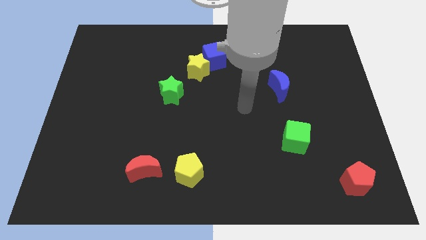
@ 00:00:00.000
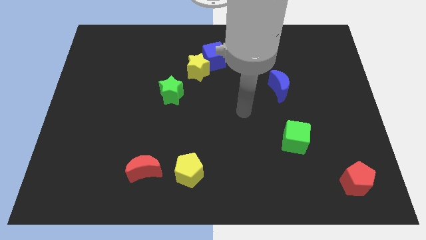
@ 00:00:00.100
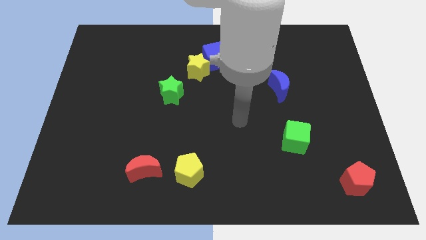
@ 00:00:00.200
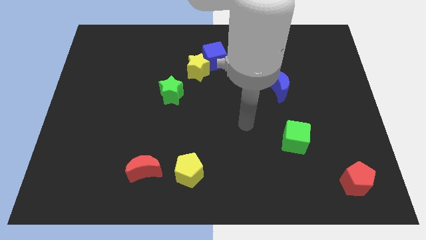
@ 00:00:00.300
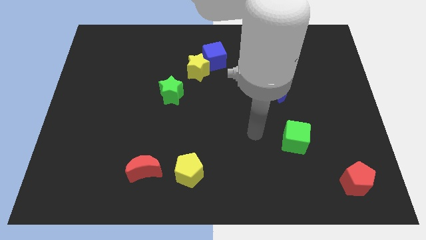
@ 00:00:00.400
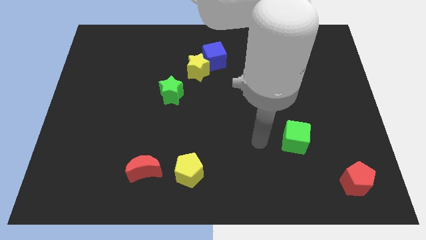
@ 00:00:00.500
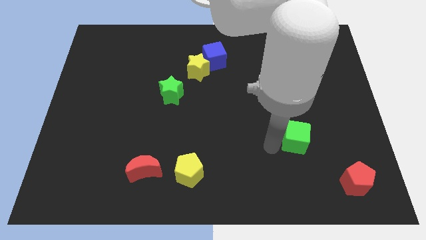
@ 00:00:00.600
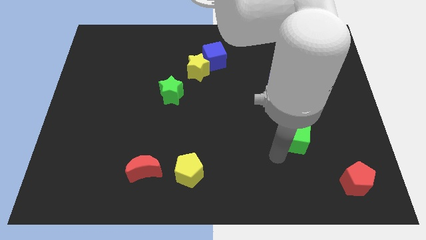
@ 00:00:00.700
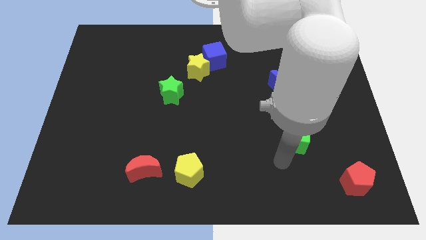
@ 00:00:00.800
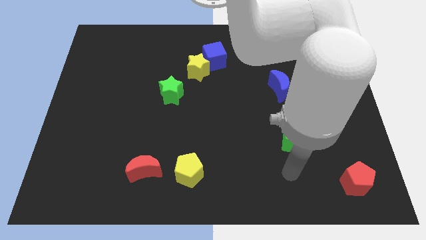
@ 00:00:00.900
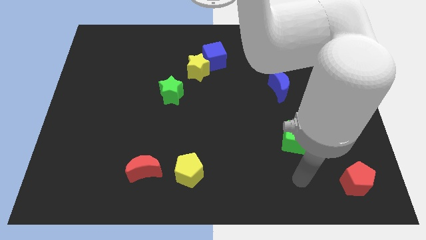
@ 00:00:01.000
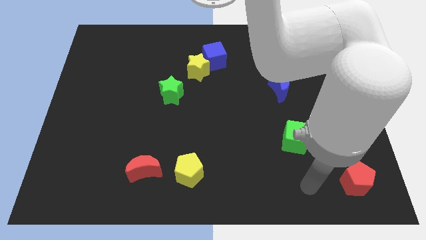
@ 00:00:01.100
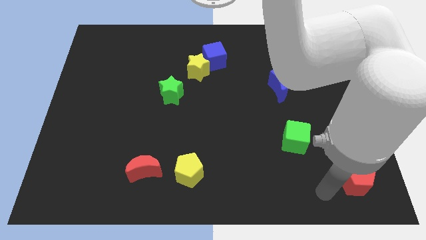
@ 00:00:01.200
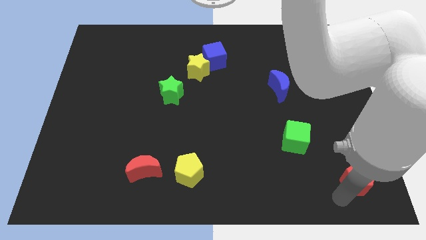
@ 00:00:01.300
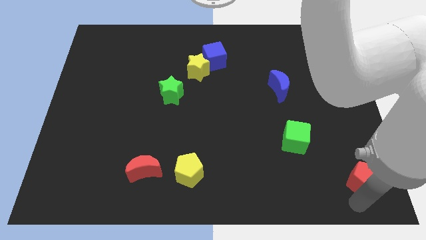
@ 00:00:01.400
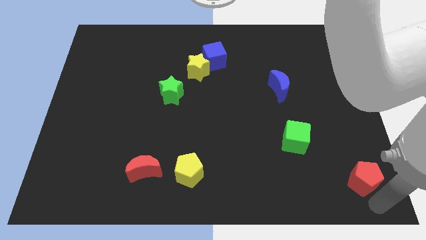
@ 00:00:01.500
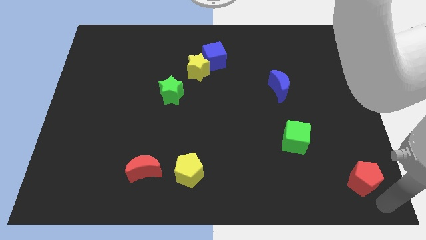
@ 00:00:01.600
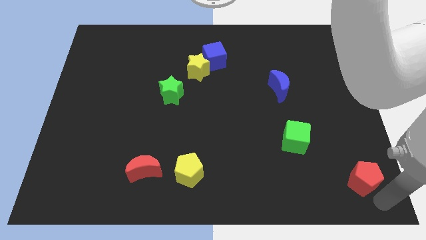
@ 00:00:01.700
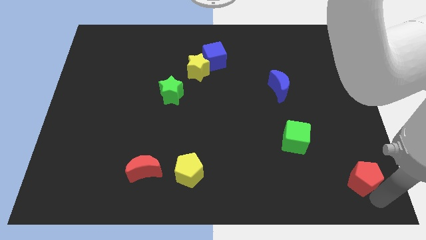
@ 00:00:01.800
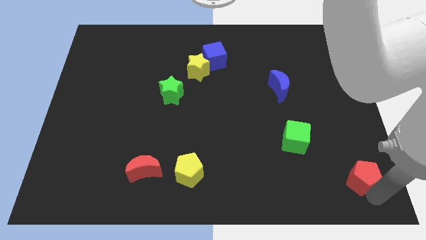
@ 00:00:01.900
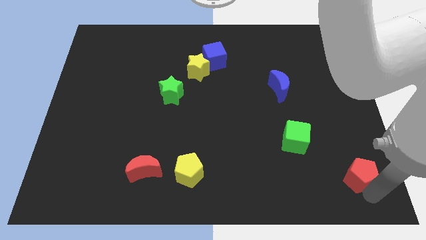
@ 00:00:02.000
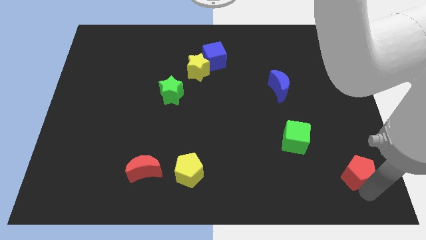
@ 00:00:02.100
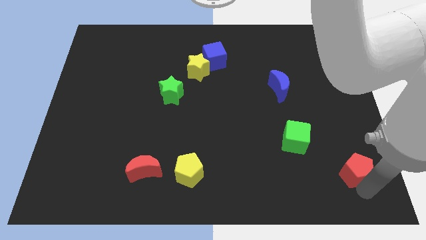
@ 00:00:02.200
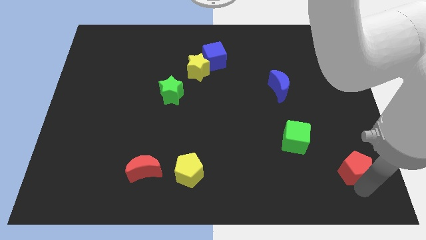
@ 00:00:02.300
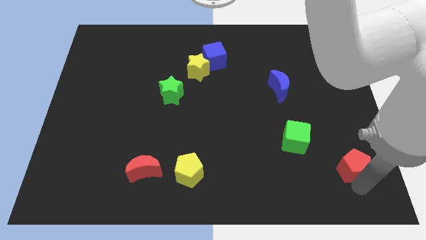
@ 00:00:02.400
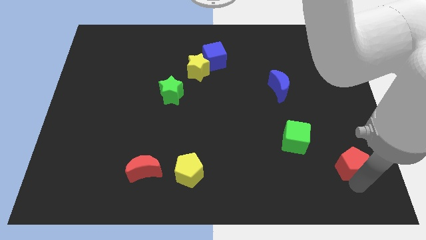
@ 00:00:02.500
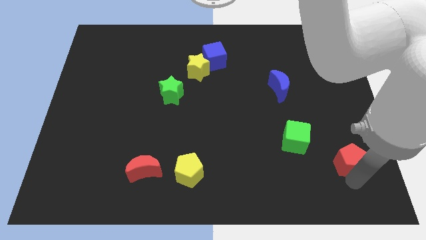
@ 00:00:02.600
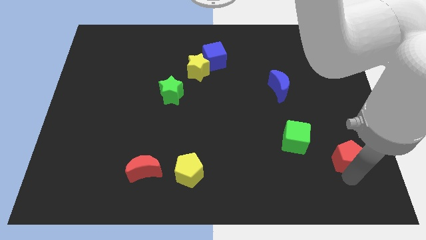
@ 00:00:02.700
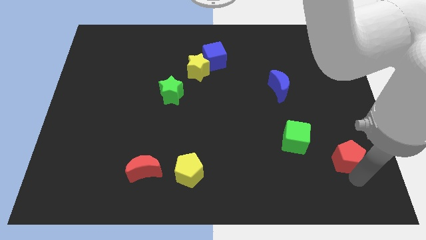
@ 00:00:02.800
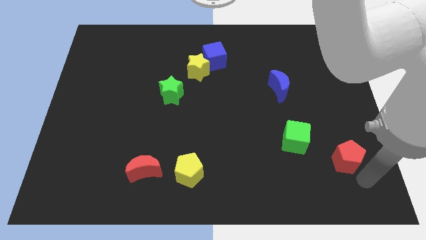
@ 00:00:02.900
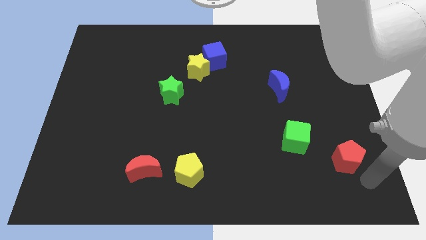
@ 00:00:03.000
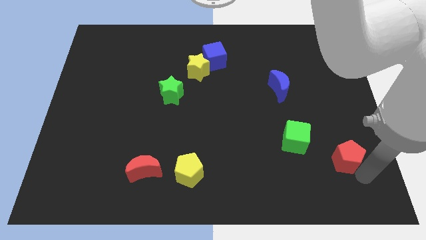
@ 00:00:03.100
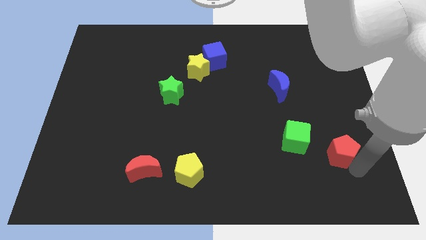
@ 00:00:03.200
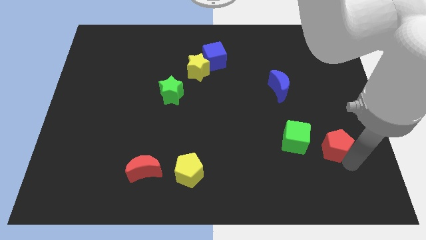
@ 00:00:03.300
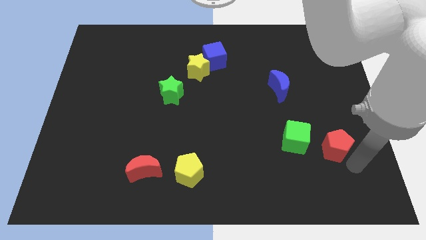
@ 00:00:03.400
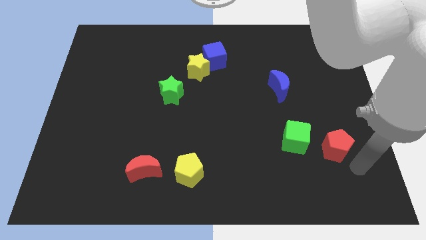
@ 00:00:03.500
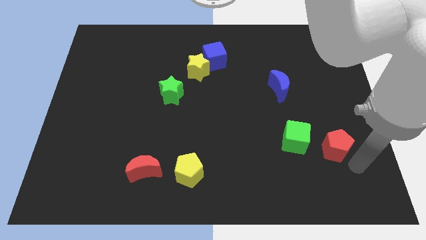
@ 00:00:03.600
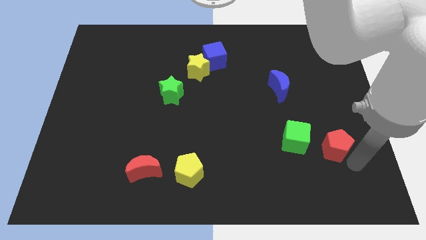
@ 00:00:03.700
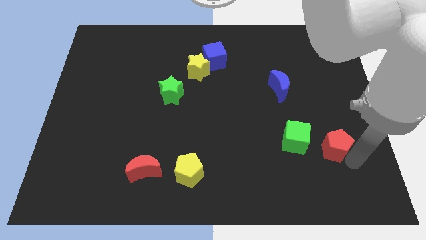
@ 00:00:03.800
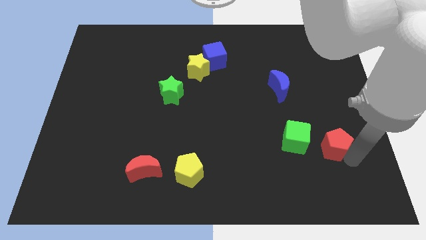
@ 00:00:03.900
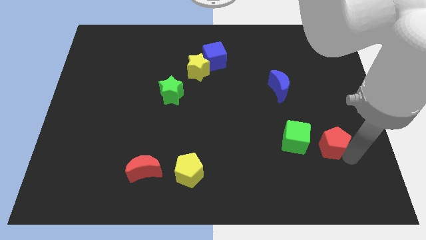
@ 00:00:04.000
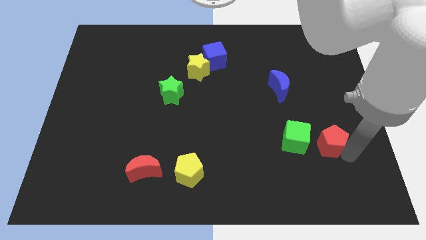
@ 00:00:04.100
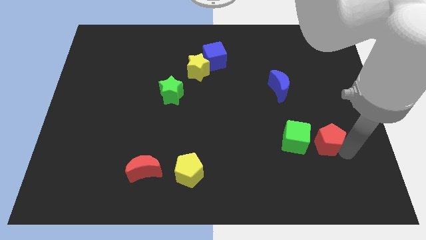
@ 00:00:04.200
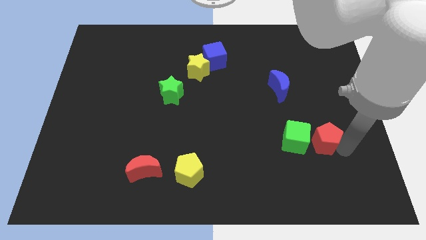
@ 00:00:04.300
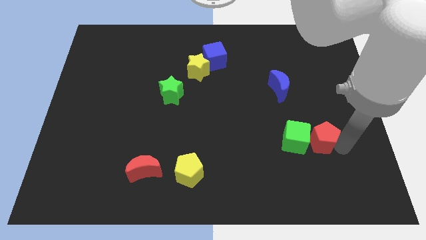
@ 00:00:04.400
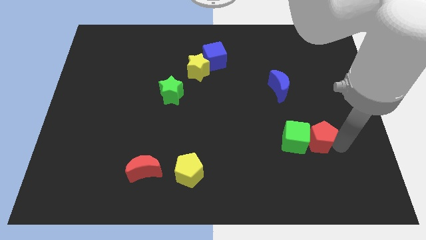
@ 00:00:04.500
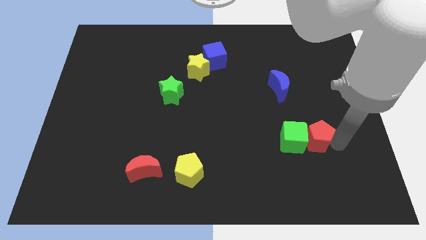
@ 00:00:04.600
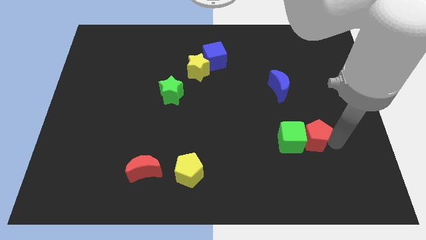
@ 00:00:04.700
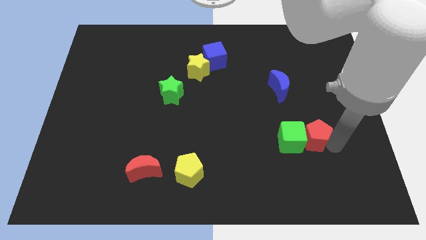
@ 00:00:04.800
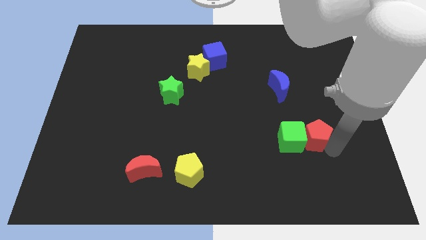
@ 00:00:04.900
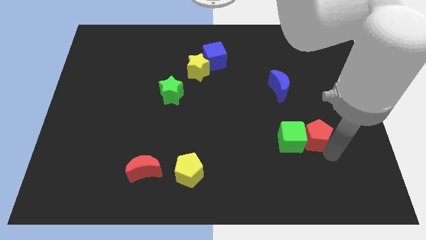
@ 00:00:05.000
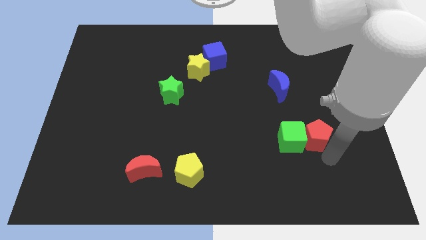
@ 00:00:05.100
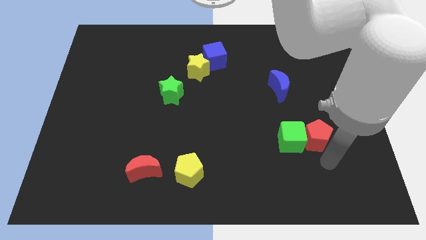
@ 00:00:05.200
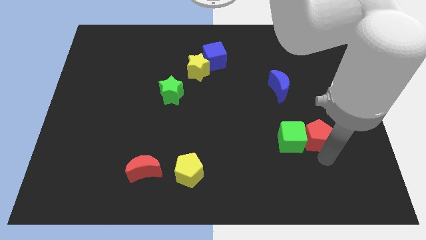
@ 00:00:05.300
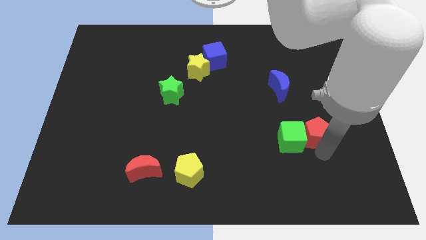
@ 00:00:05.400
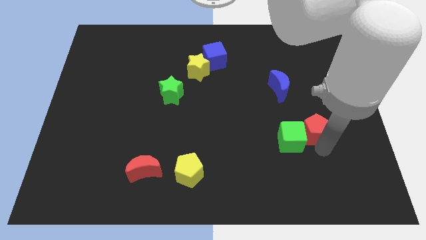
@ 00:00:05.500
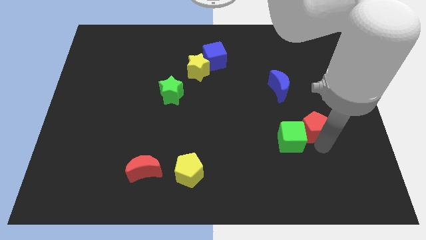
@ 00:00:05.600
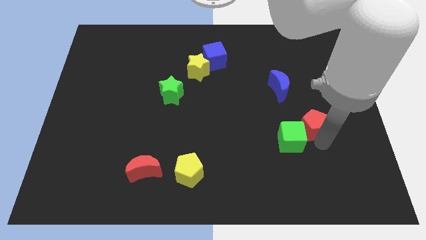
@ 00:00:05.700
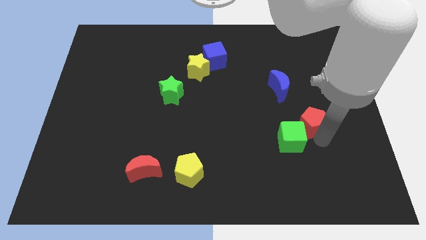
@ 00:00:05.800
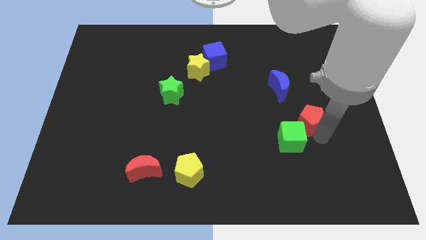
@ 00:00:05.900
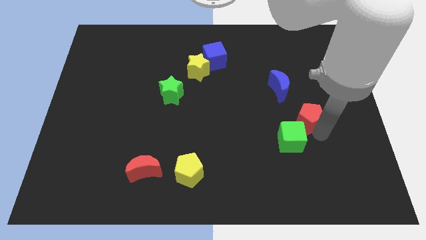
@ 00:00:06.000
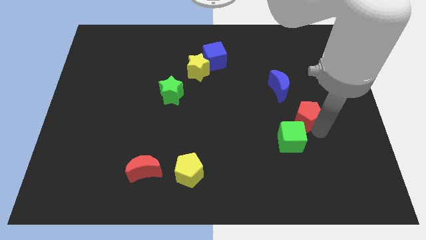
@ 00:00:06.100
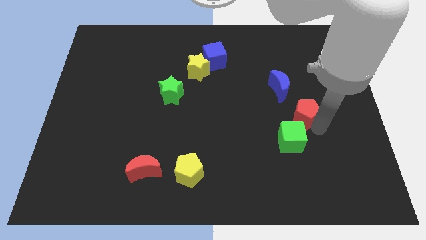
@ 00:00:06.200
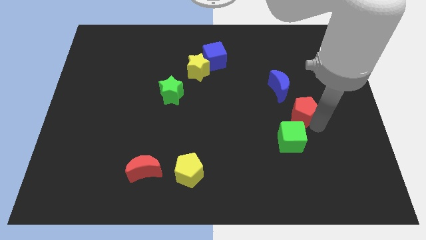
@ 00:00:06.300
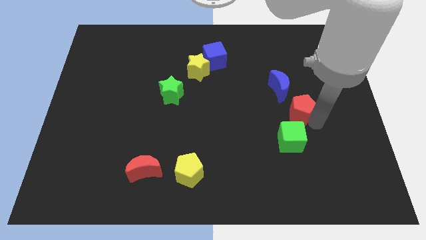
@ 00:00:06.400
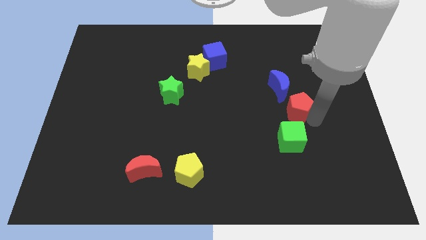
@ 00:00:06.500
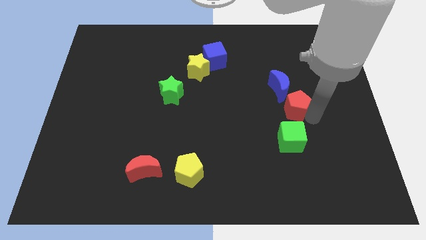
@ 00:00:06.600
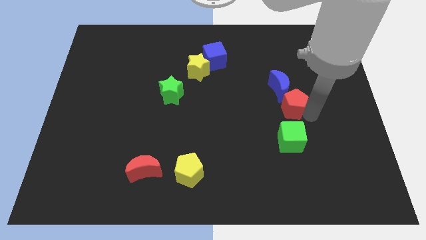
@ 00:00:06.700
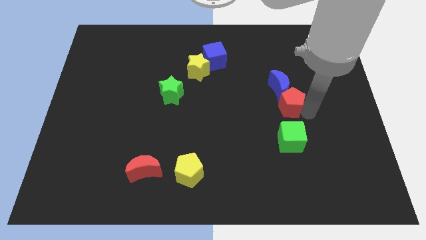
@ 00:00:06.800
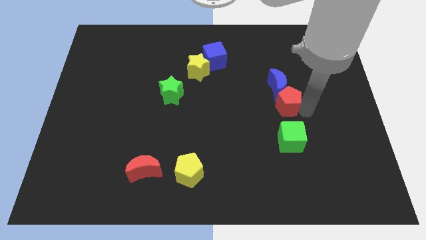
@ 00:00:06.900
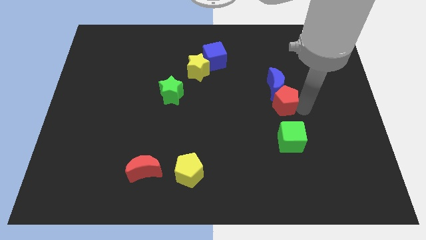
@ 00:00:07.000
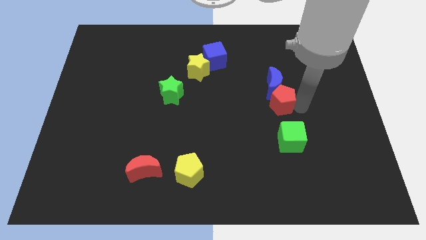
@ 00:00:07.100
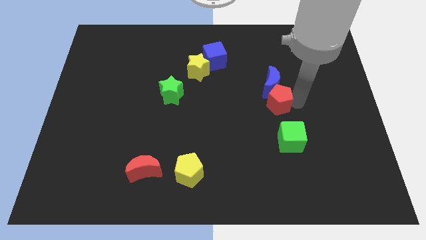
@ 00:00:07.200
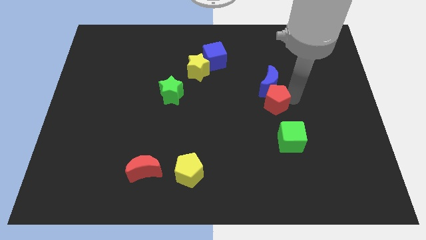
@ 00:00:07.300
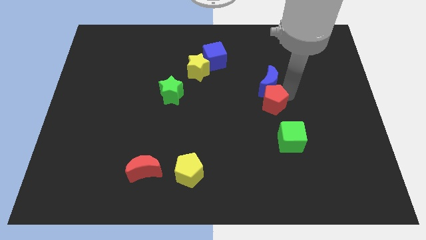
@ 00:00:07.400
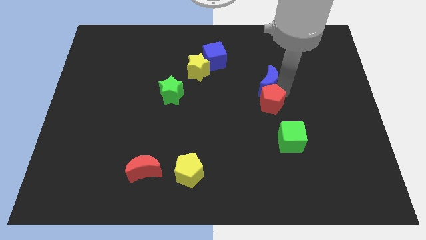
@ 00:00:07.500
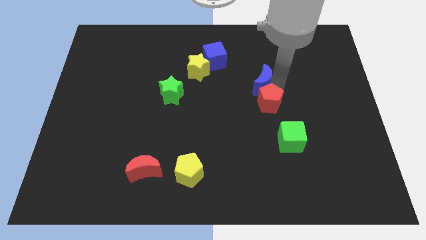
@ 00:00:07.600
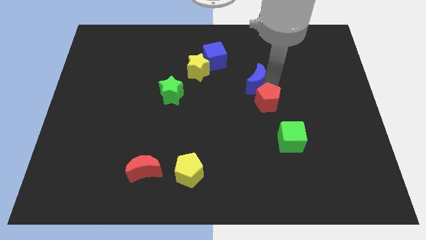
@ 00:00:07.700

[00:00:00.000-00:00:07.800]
put the red pentagon to the center
